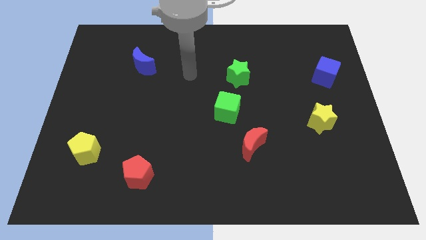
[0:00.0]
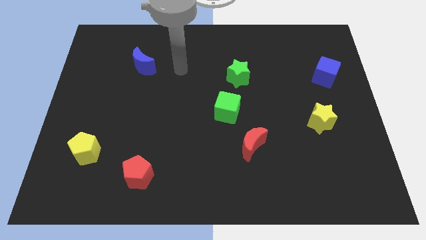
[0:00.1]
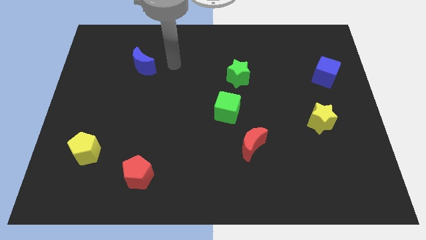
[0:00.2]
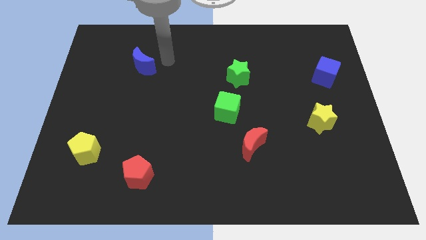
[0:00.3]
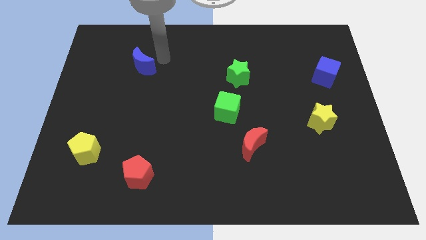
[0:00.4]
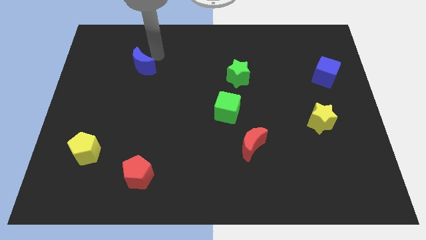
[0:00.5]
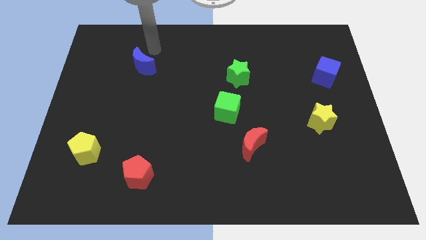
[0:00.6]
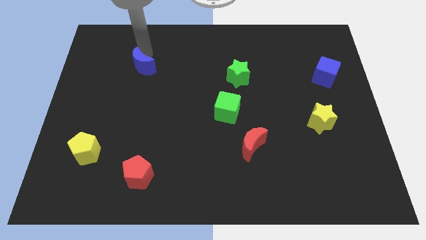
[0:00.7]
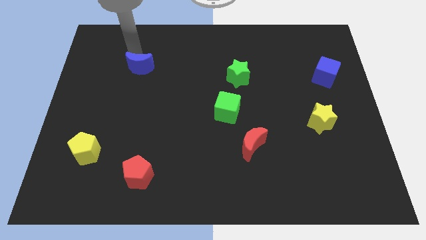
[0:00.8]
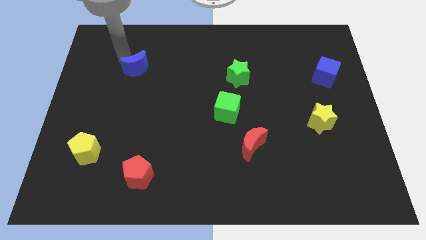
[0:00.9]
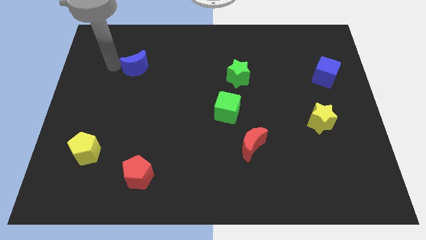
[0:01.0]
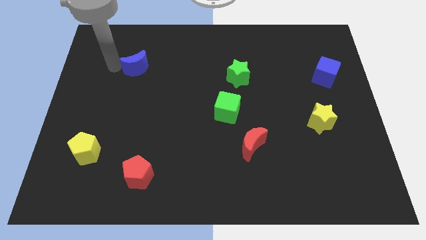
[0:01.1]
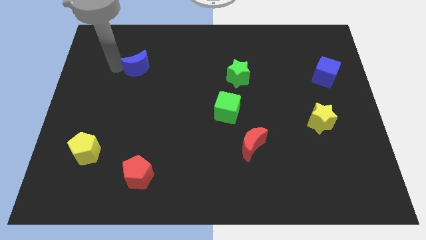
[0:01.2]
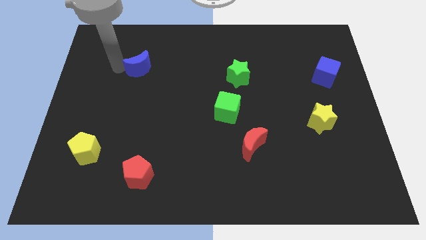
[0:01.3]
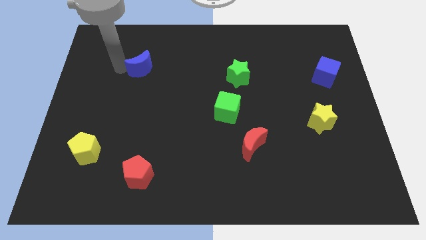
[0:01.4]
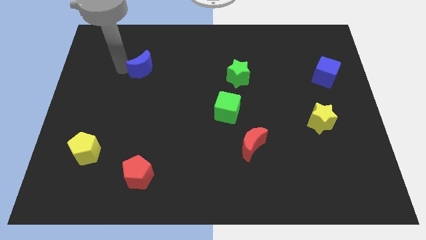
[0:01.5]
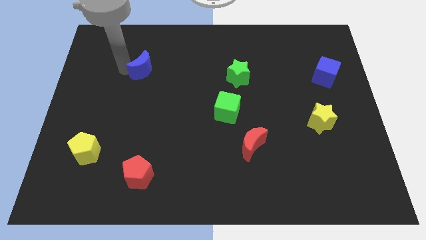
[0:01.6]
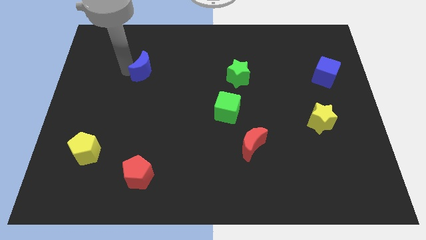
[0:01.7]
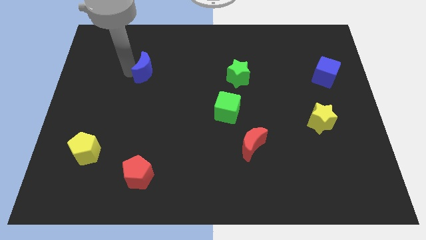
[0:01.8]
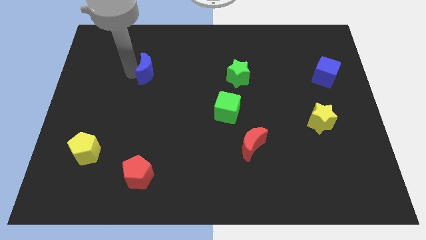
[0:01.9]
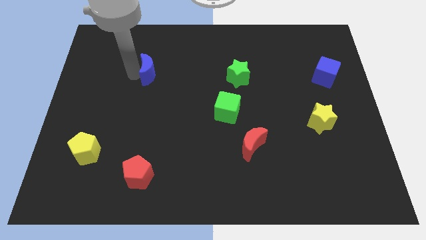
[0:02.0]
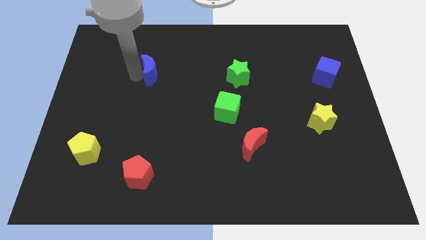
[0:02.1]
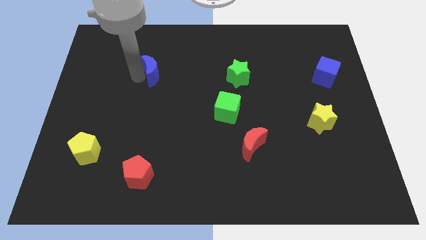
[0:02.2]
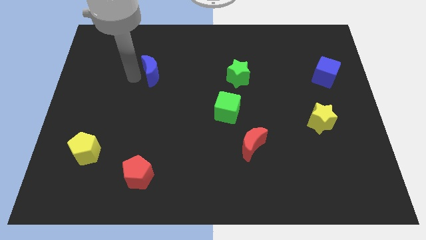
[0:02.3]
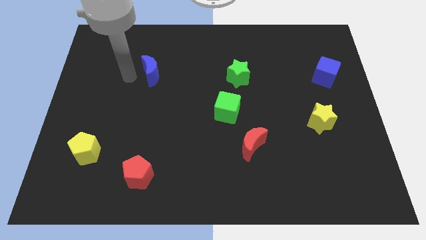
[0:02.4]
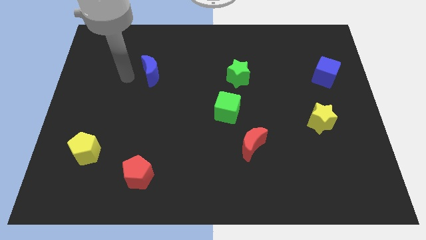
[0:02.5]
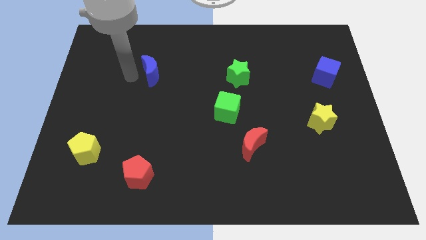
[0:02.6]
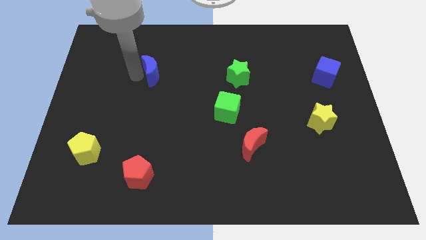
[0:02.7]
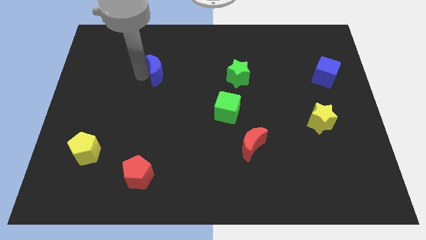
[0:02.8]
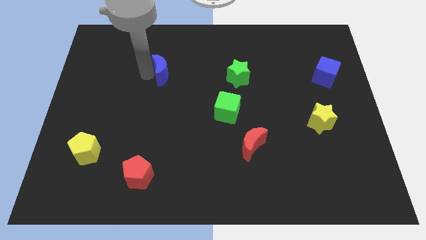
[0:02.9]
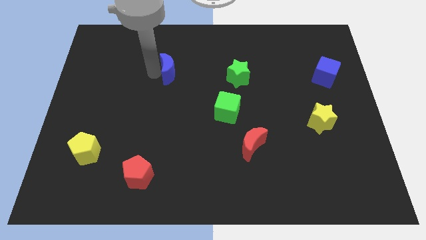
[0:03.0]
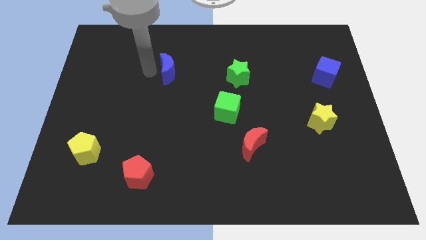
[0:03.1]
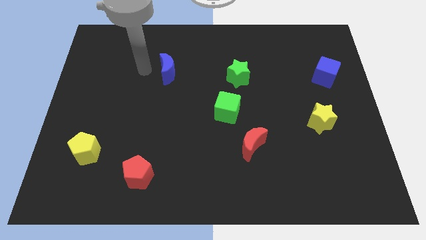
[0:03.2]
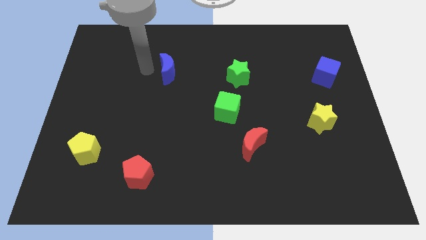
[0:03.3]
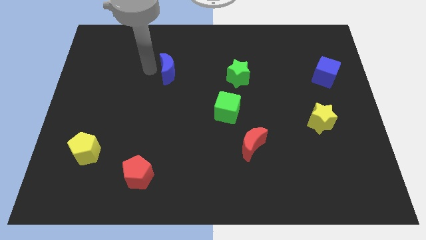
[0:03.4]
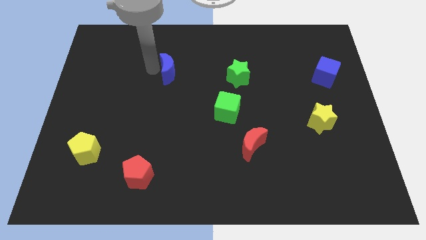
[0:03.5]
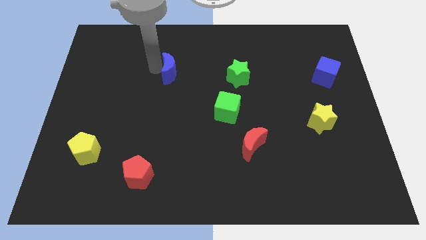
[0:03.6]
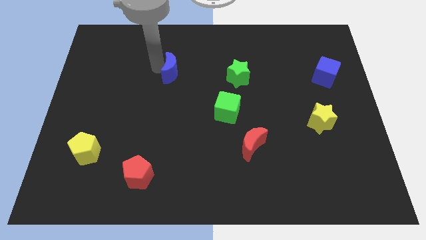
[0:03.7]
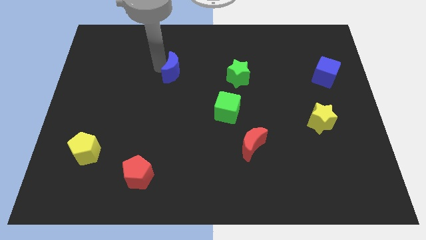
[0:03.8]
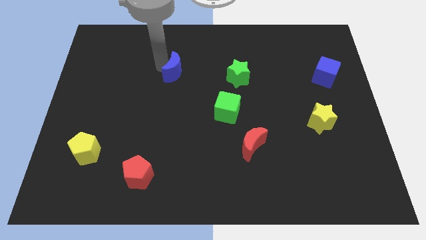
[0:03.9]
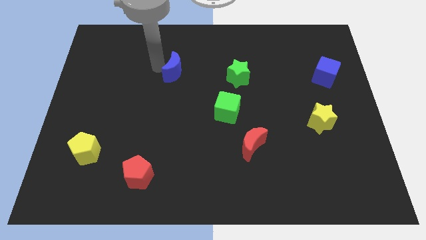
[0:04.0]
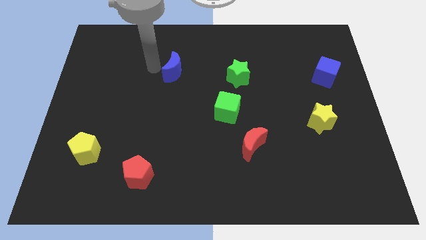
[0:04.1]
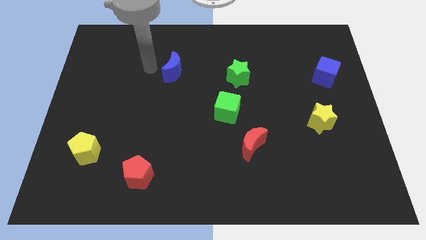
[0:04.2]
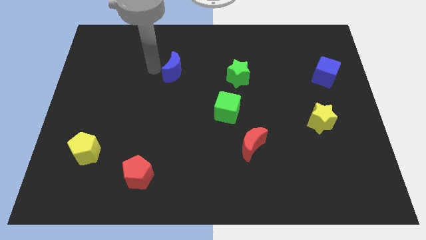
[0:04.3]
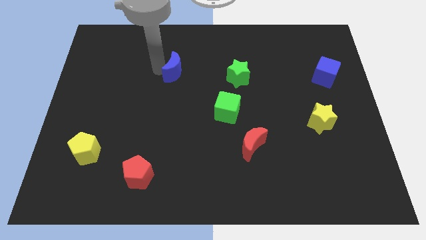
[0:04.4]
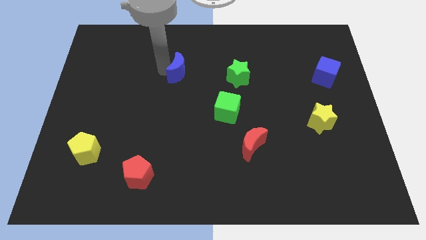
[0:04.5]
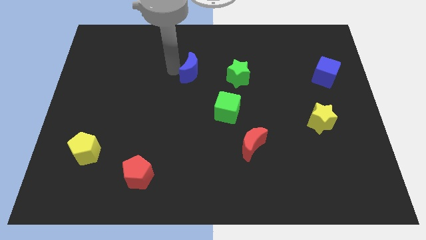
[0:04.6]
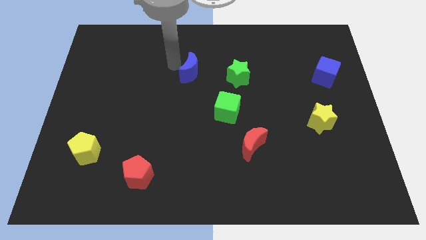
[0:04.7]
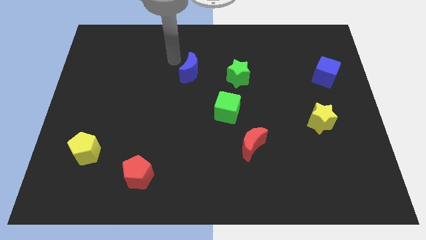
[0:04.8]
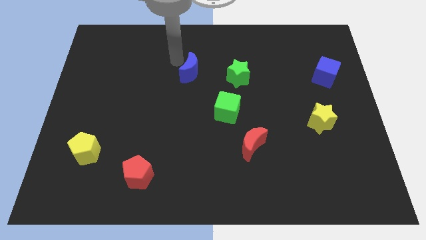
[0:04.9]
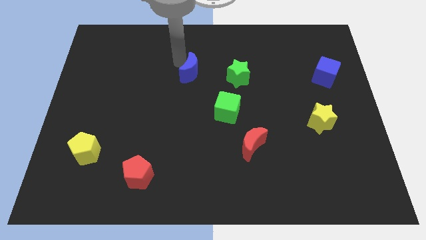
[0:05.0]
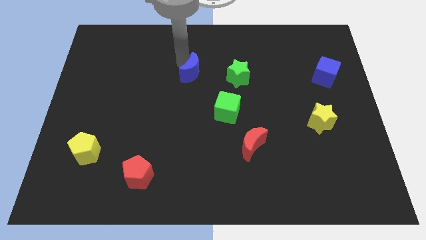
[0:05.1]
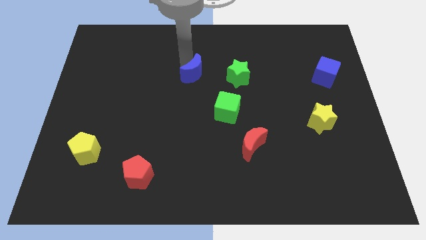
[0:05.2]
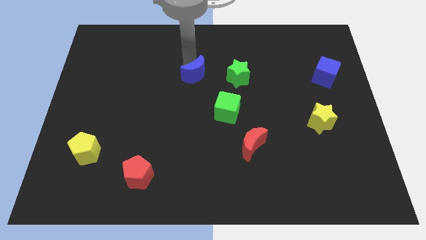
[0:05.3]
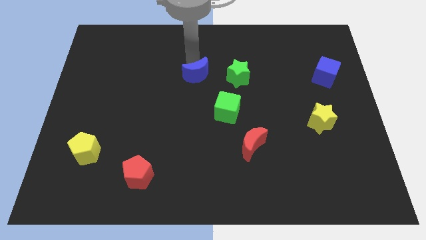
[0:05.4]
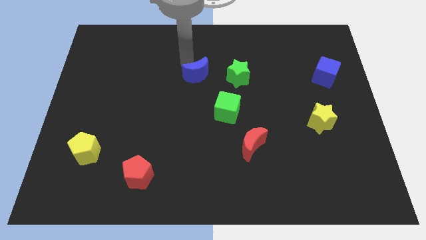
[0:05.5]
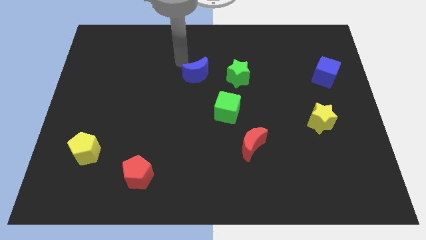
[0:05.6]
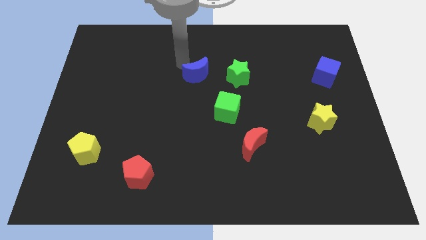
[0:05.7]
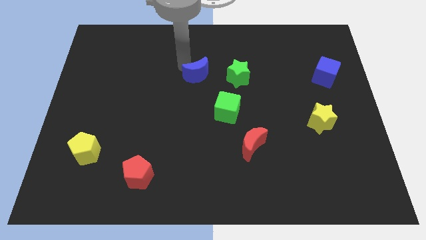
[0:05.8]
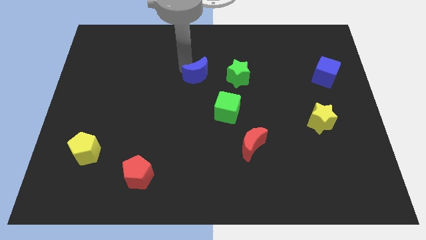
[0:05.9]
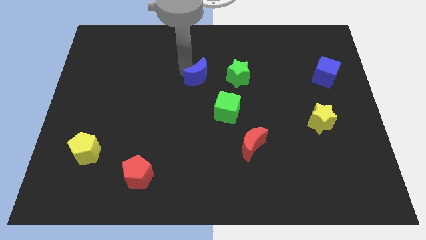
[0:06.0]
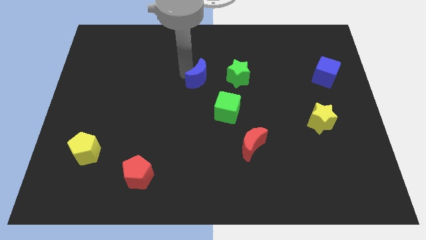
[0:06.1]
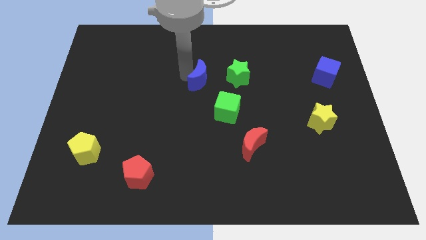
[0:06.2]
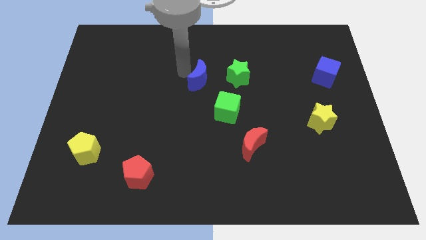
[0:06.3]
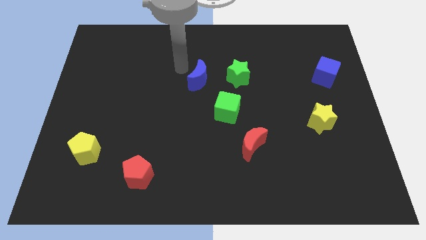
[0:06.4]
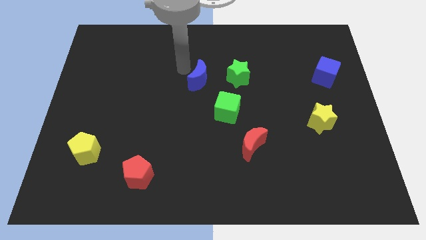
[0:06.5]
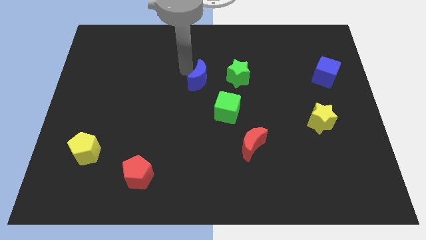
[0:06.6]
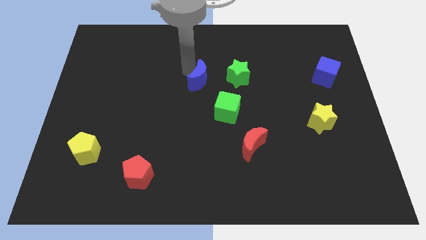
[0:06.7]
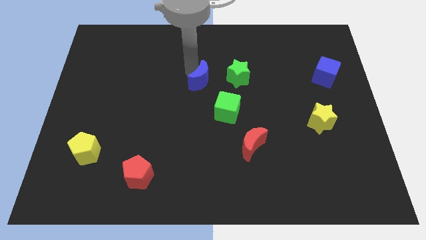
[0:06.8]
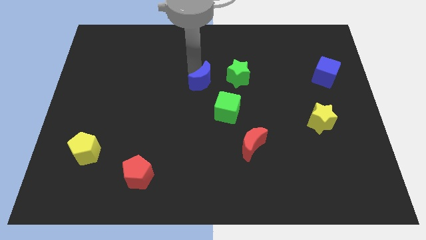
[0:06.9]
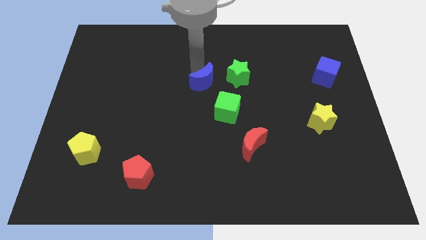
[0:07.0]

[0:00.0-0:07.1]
put the blue moon to the bottom left of the green star
